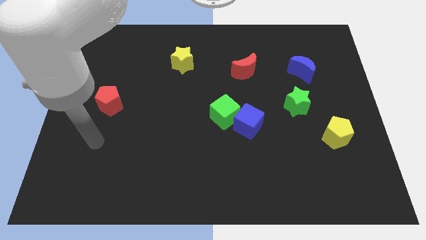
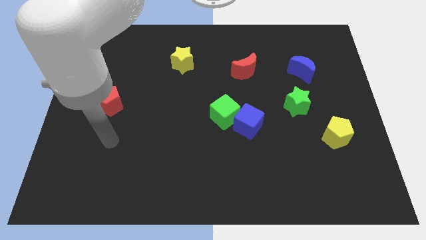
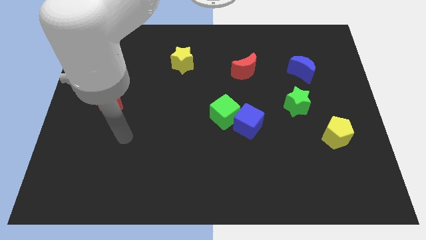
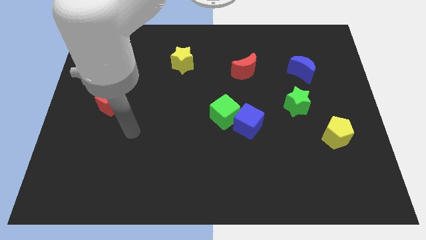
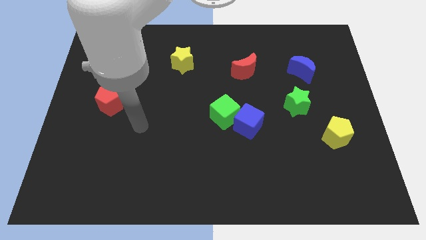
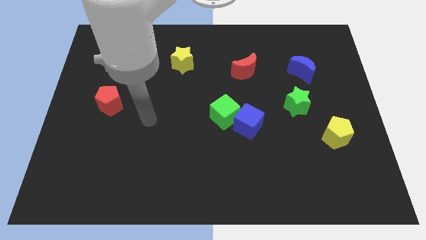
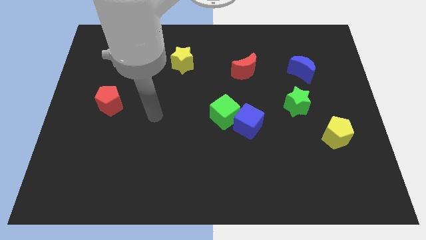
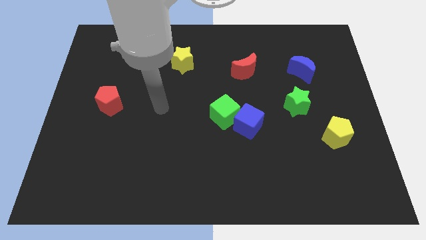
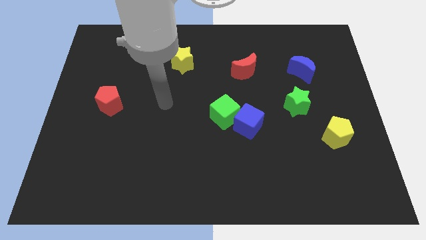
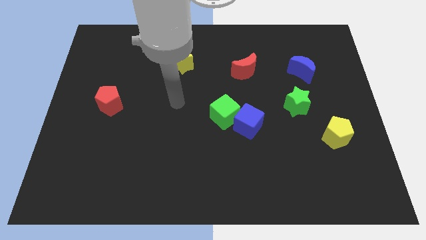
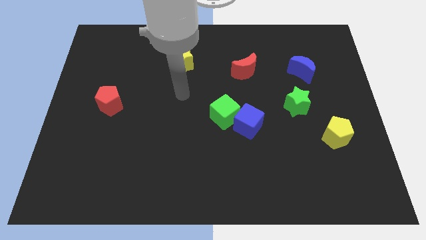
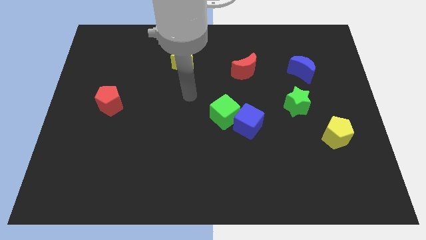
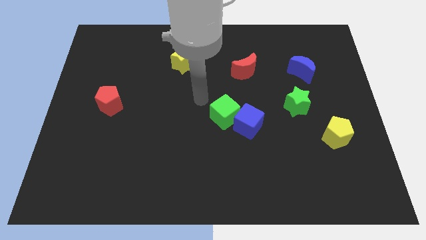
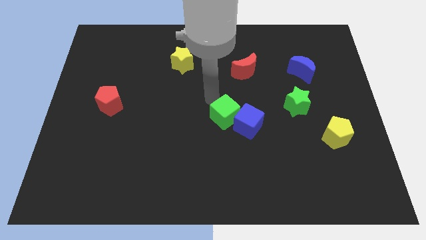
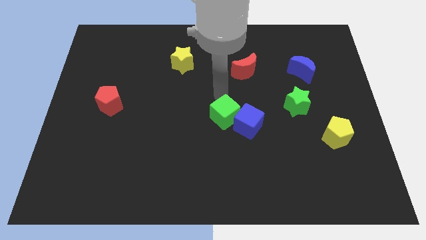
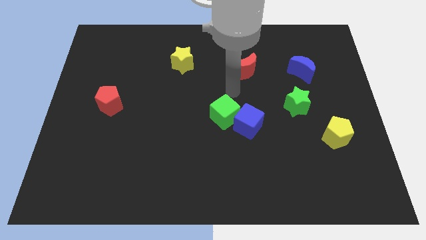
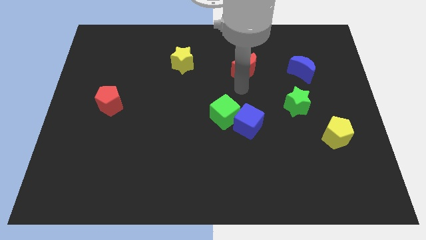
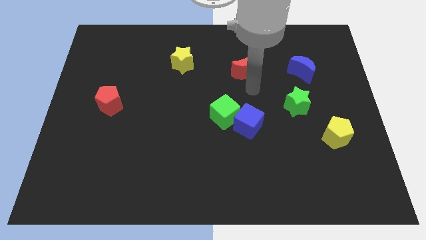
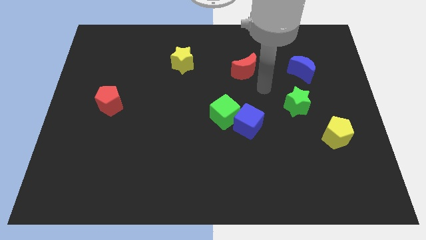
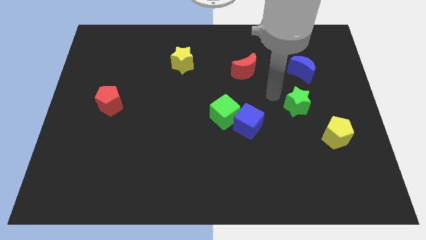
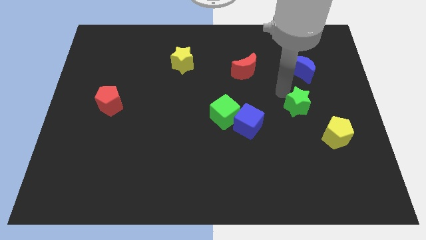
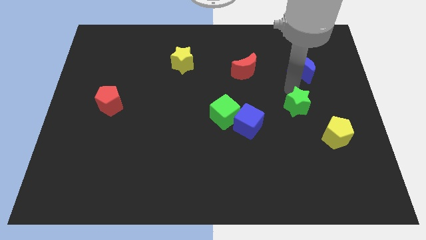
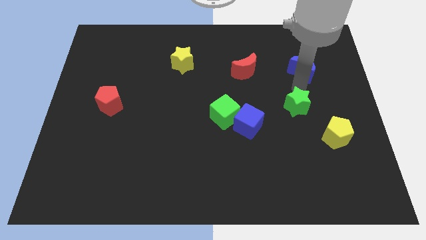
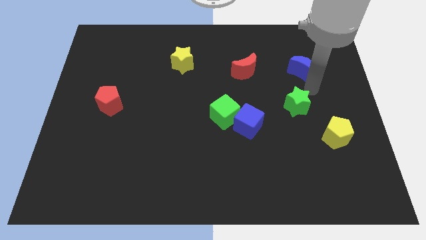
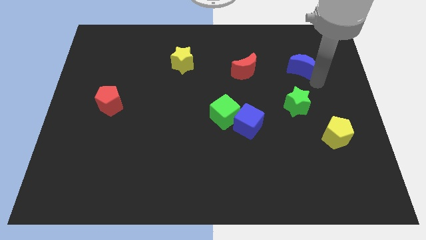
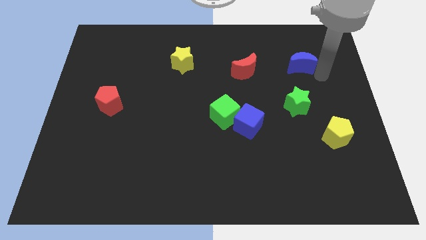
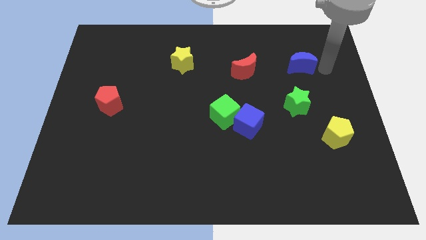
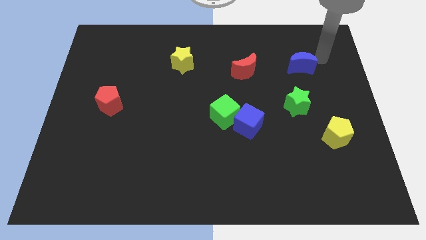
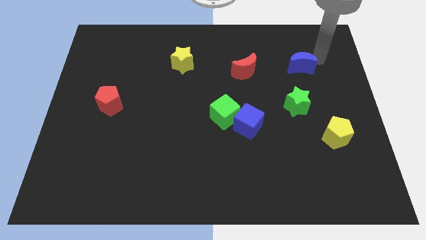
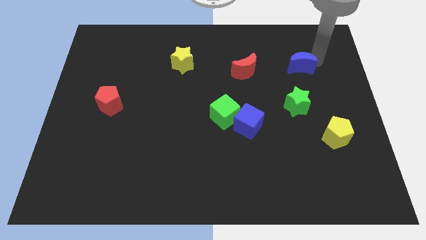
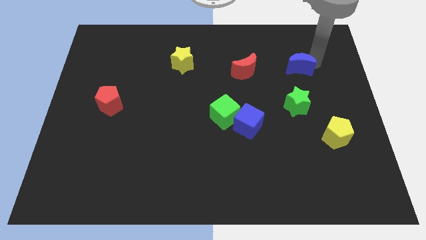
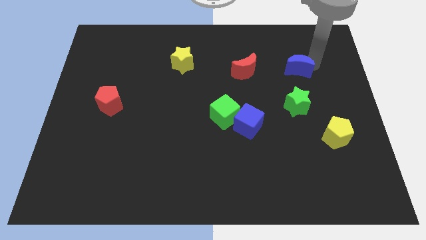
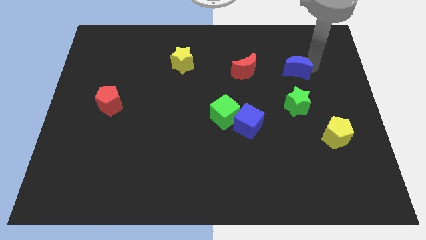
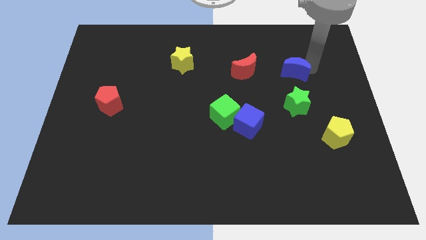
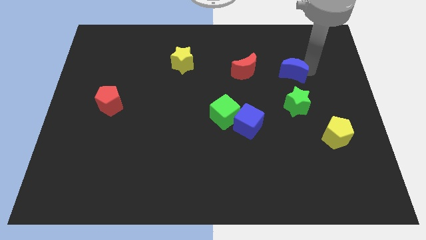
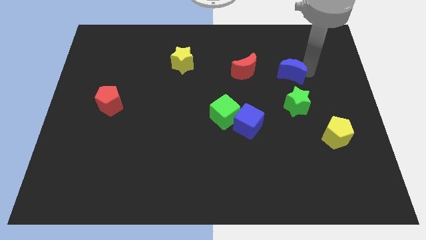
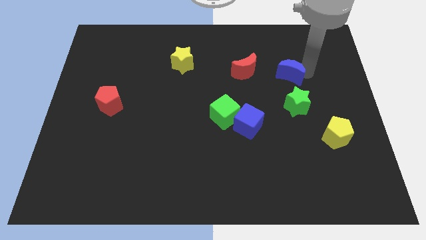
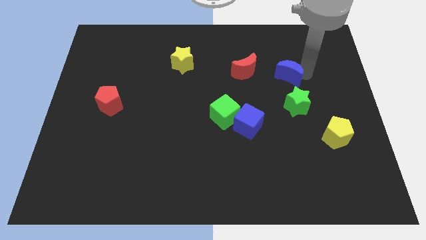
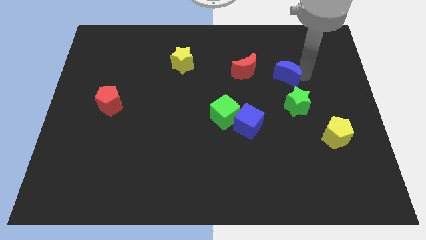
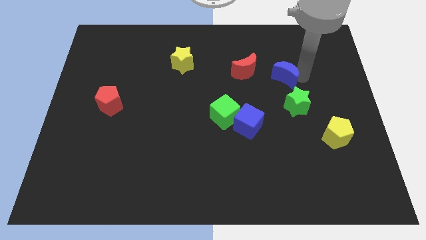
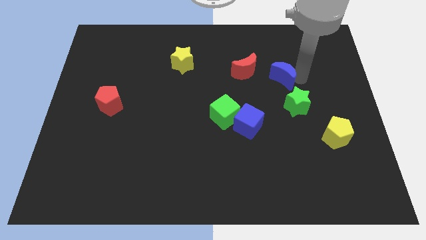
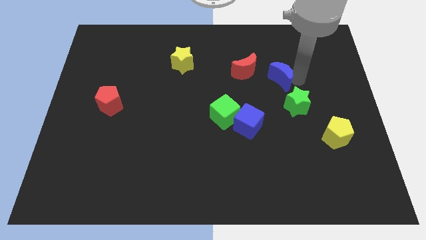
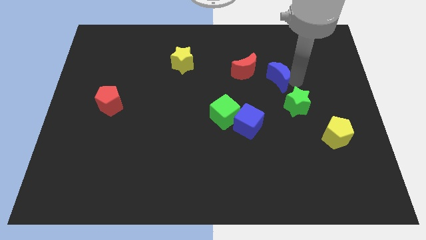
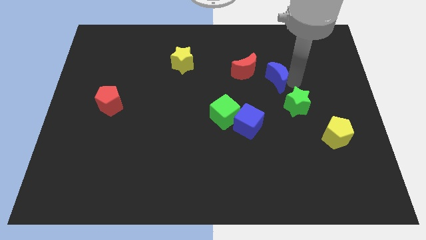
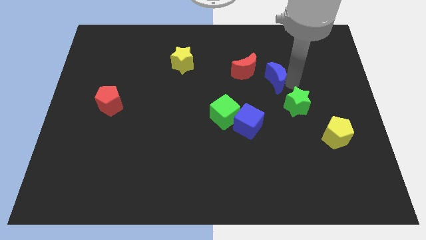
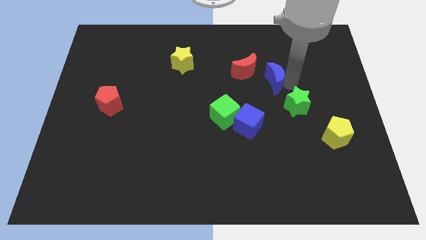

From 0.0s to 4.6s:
slide the blue moon left a little

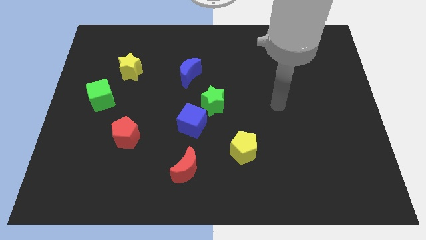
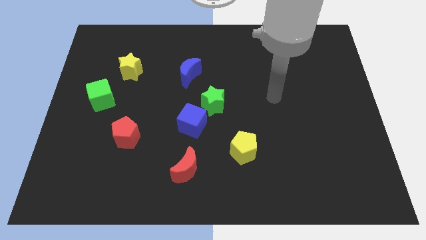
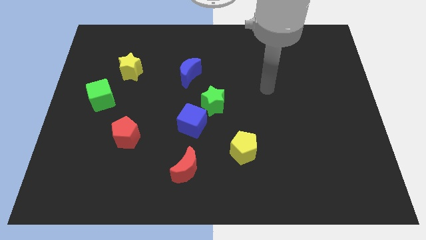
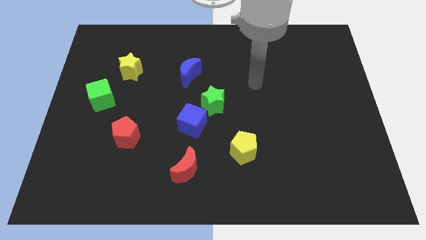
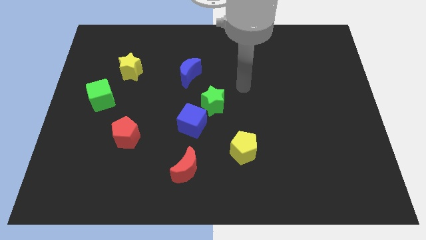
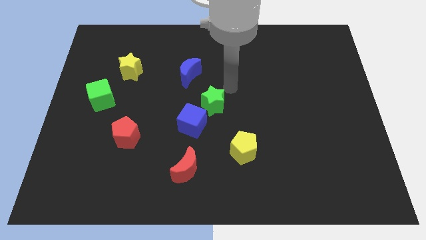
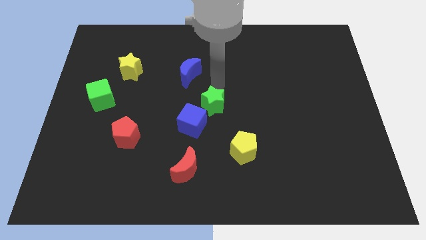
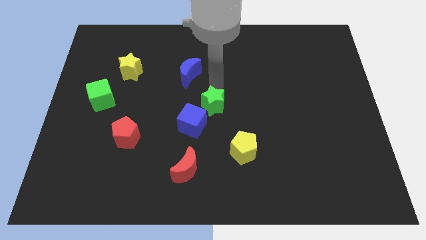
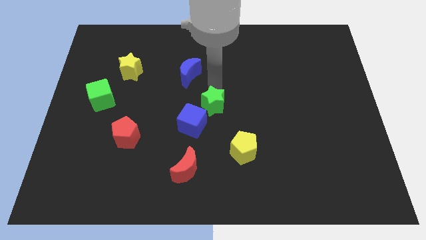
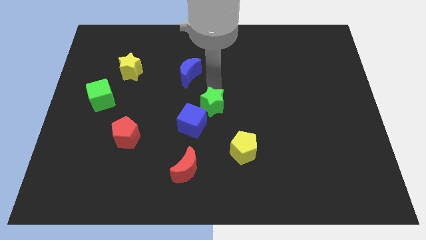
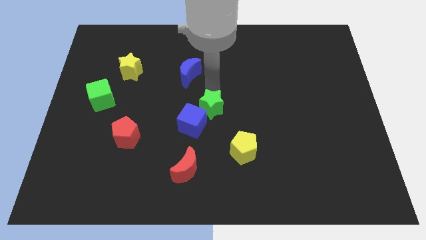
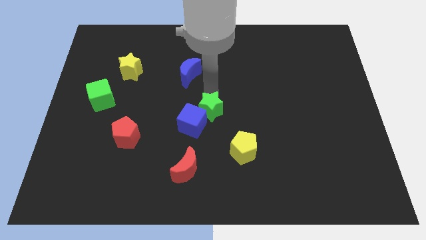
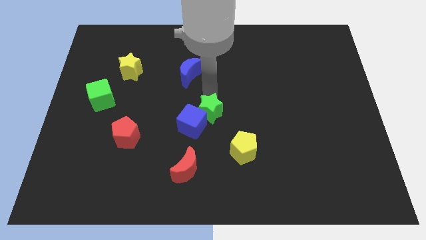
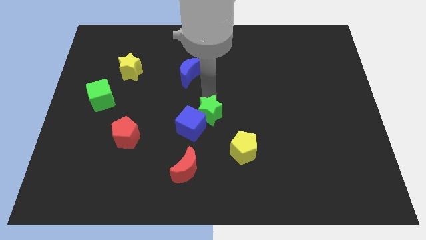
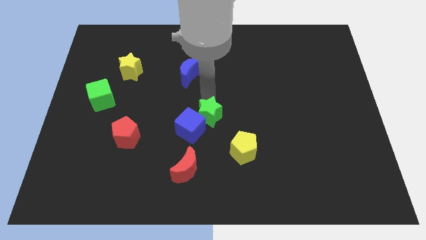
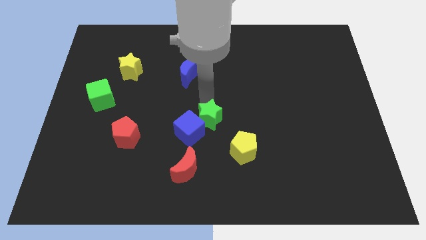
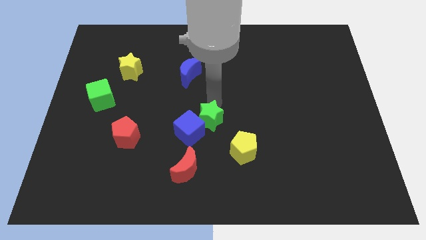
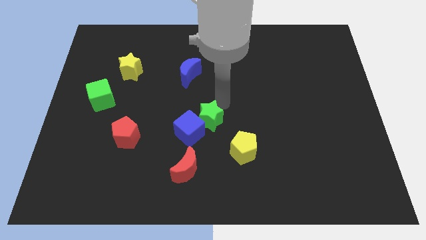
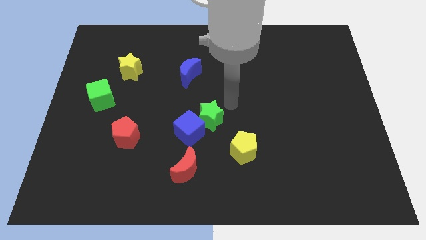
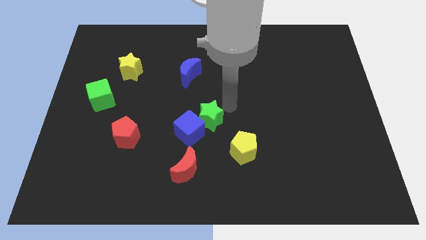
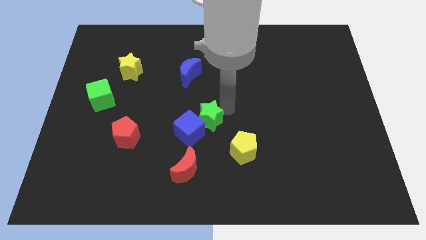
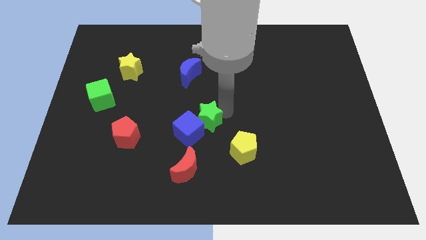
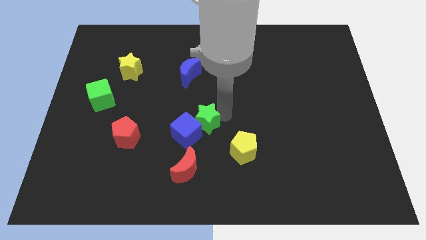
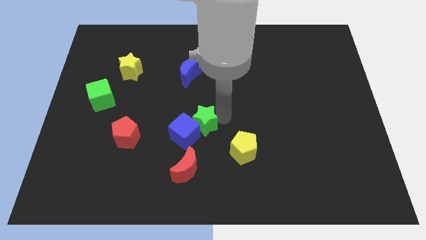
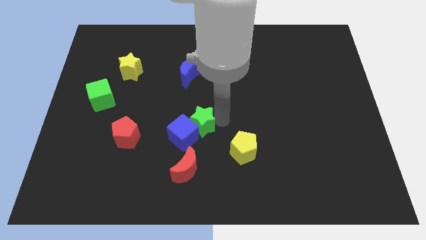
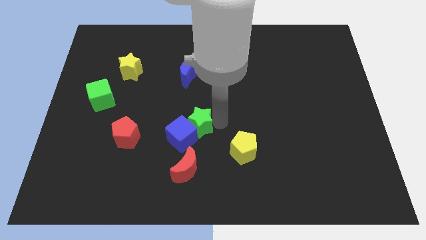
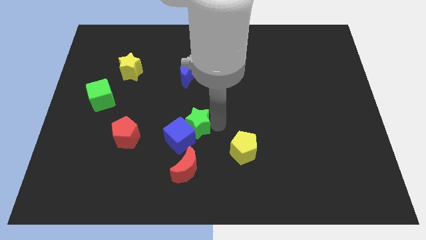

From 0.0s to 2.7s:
slide the green star a little down and to the left

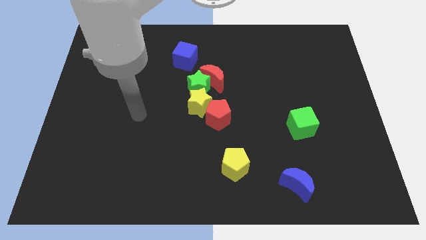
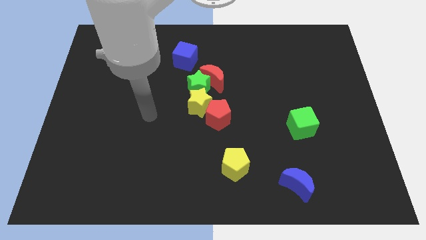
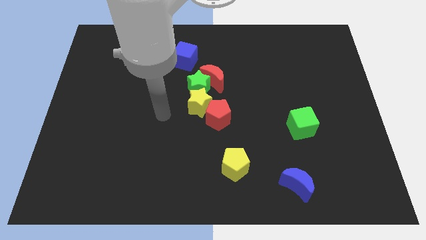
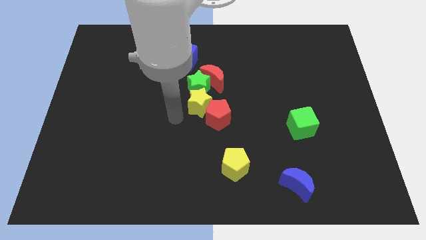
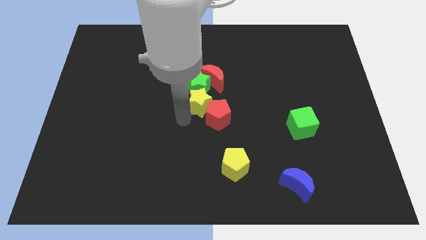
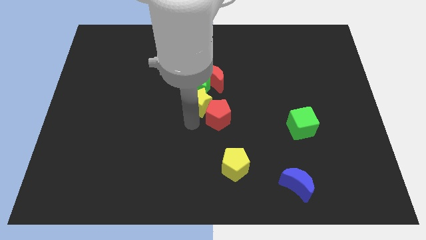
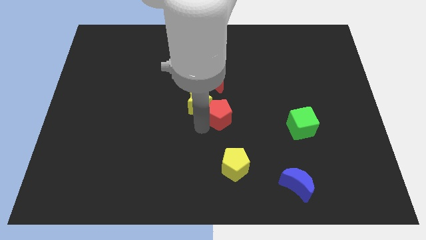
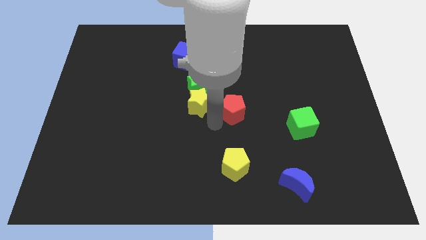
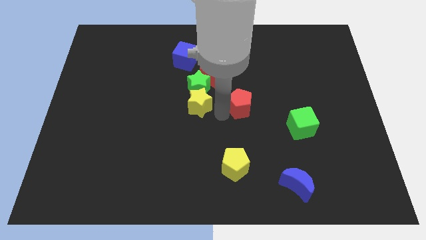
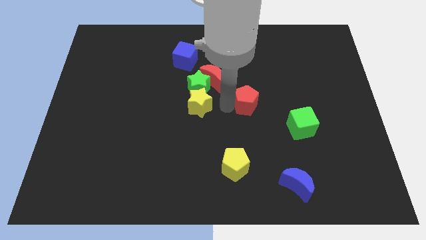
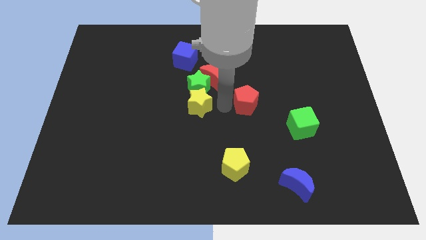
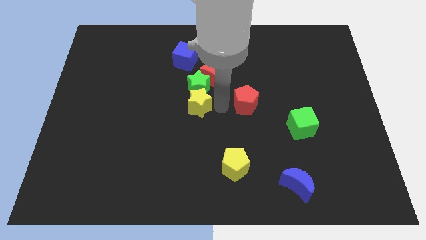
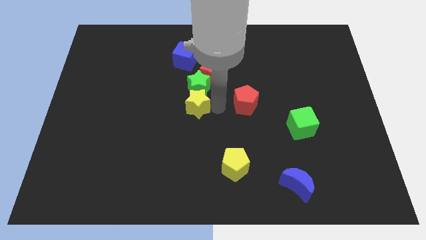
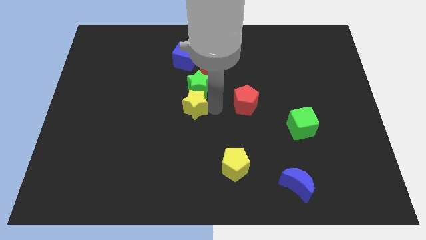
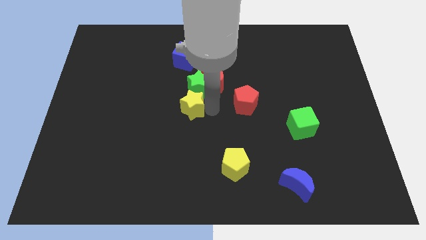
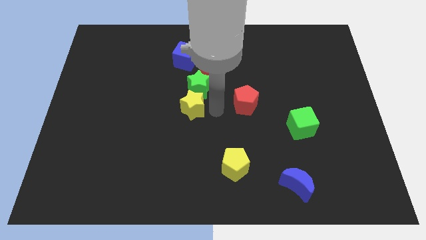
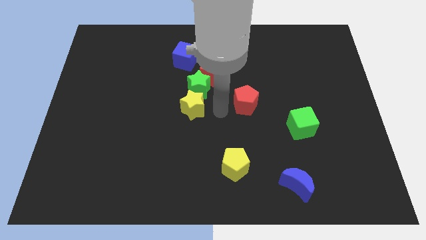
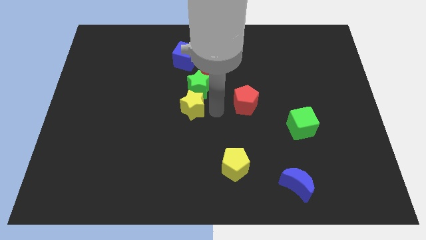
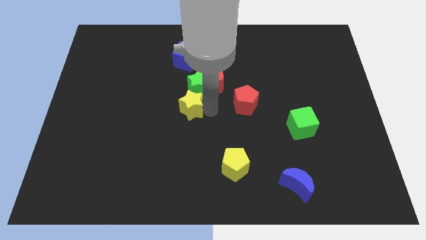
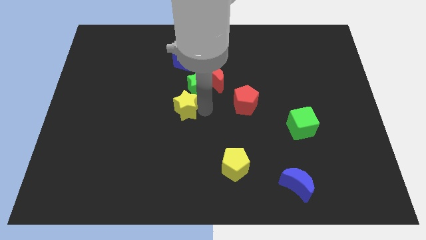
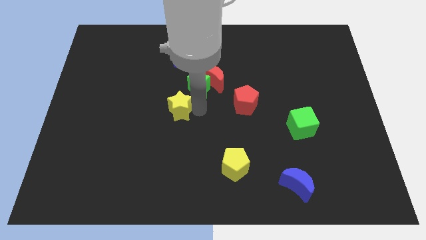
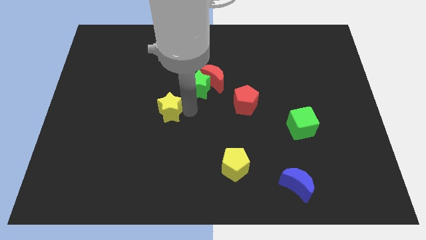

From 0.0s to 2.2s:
move the yellow star to the left slightly
